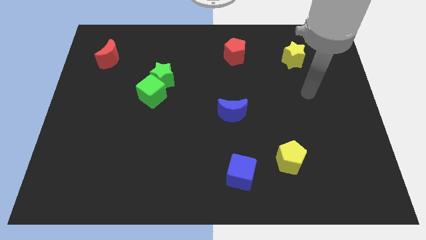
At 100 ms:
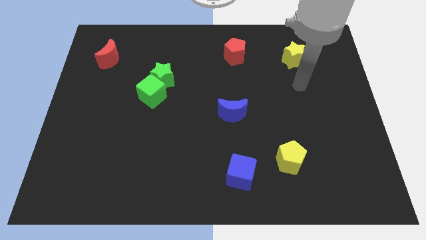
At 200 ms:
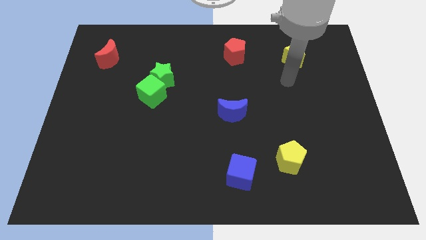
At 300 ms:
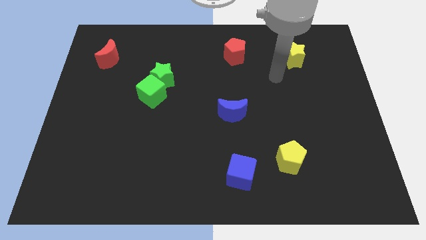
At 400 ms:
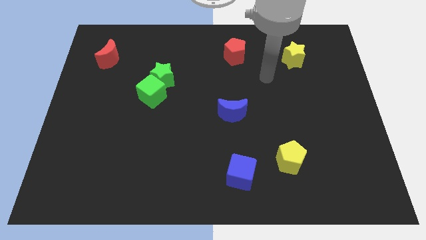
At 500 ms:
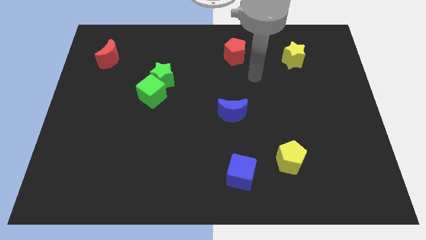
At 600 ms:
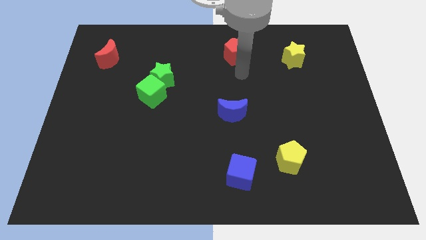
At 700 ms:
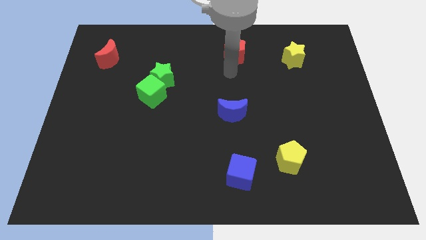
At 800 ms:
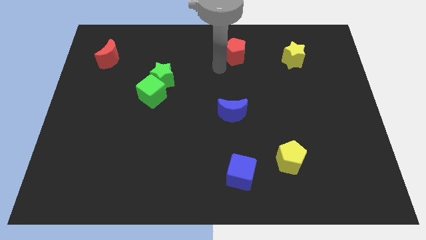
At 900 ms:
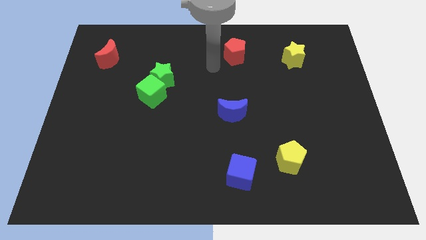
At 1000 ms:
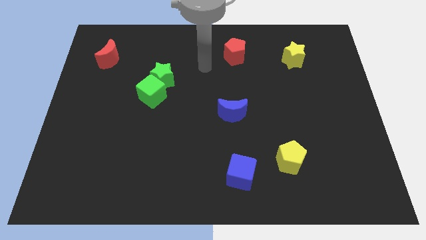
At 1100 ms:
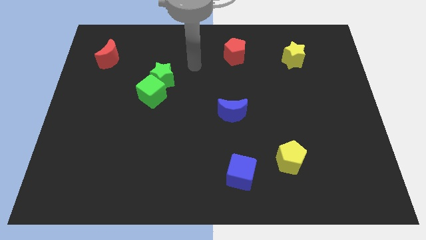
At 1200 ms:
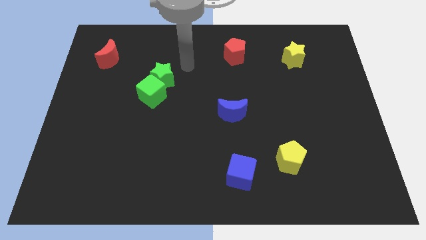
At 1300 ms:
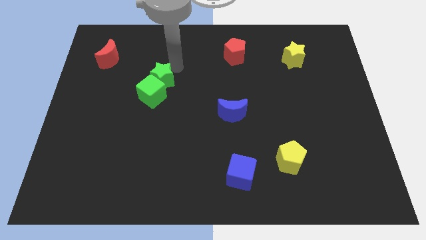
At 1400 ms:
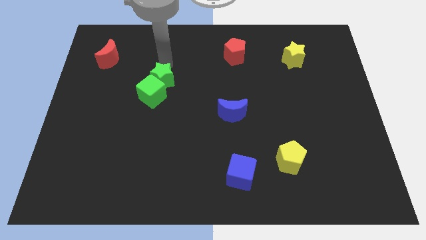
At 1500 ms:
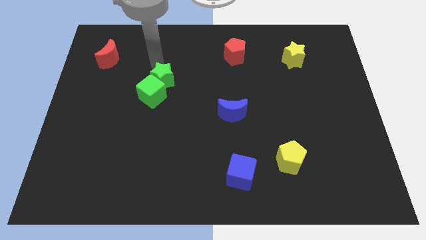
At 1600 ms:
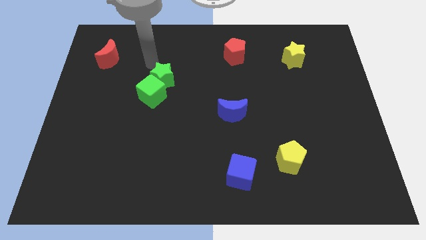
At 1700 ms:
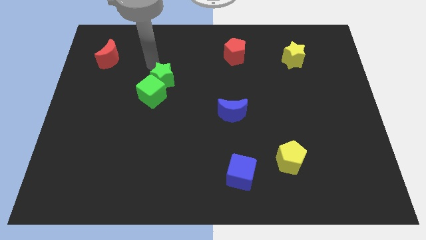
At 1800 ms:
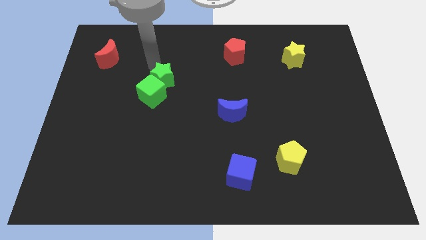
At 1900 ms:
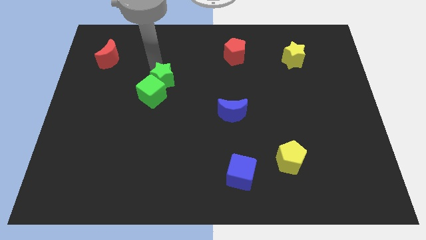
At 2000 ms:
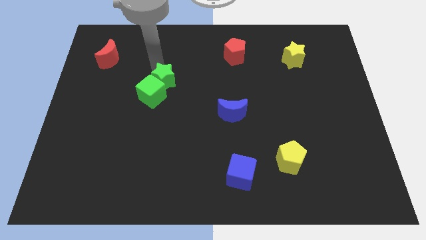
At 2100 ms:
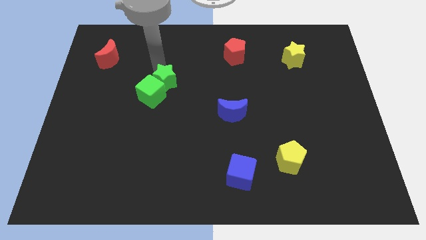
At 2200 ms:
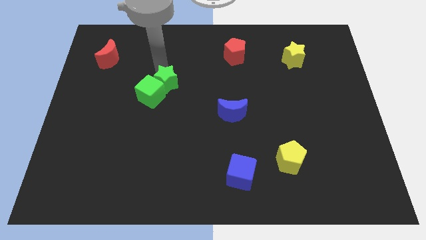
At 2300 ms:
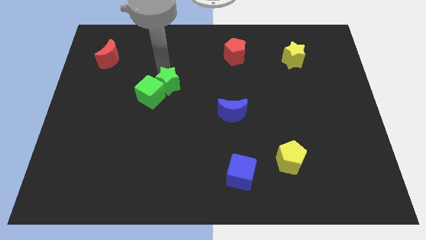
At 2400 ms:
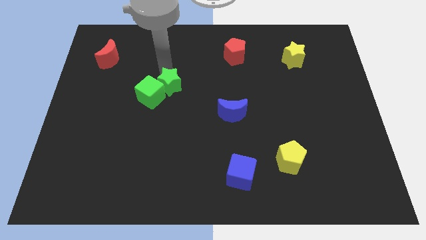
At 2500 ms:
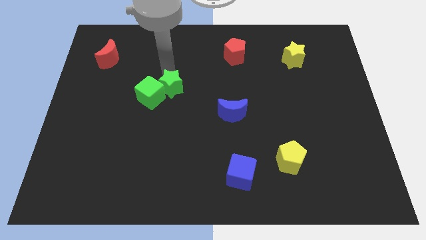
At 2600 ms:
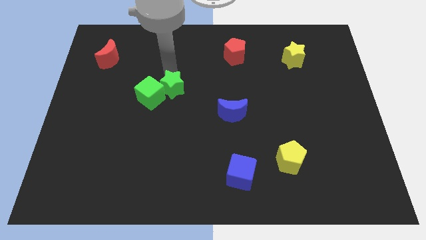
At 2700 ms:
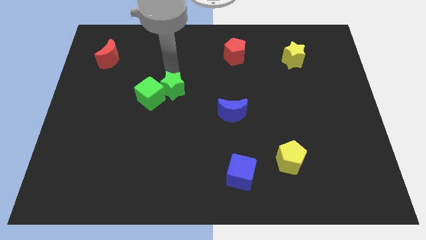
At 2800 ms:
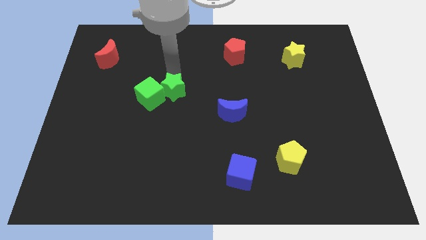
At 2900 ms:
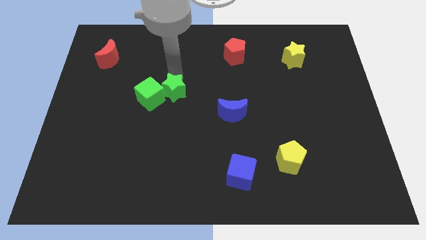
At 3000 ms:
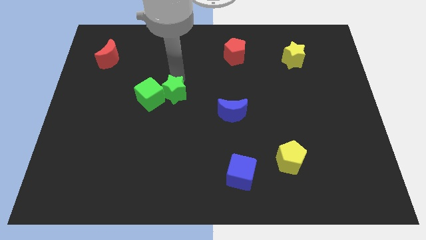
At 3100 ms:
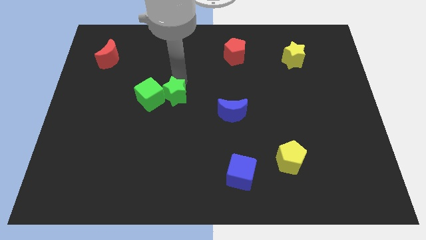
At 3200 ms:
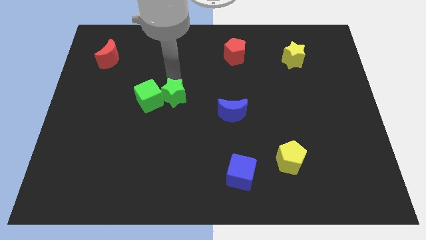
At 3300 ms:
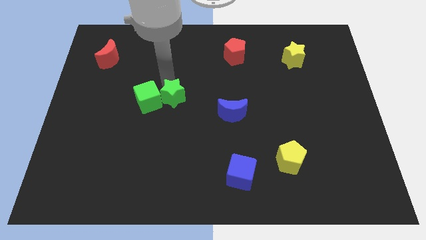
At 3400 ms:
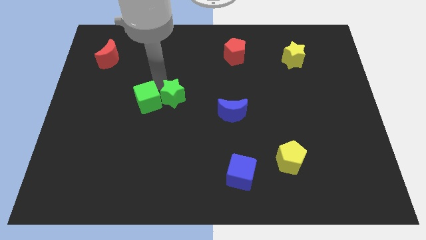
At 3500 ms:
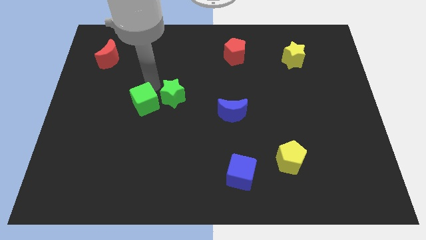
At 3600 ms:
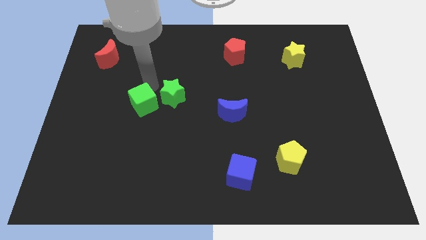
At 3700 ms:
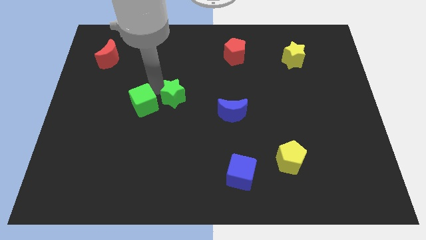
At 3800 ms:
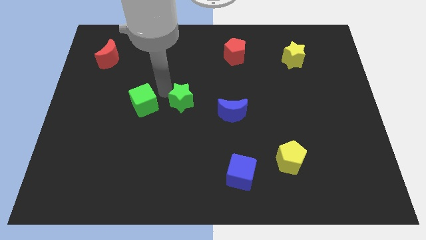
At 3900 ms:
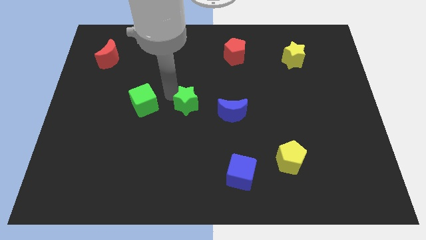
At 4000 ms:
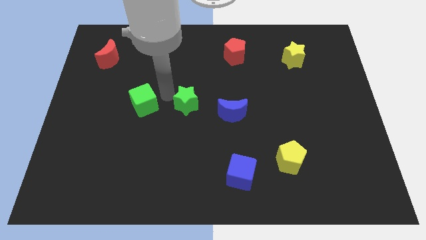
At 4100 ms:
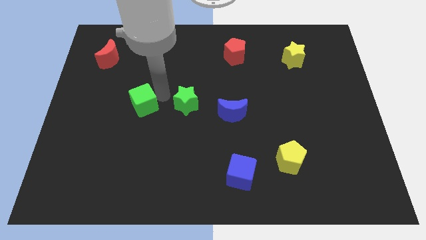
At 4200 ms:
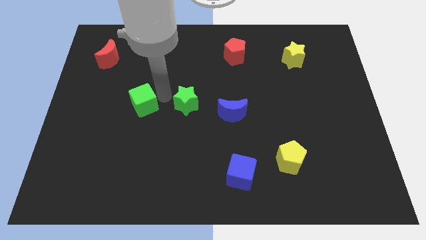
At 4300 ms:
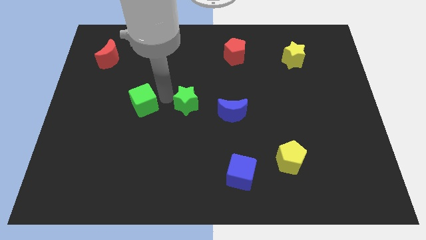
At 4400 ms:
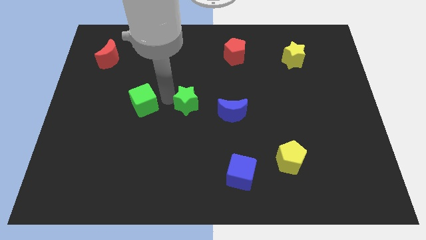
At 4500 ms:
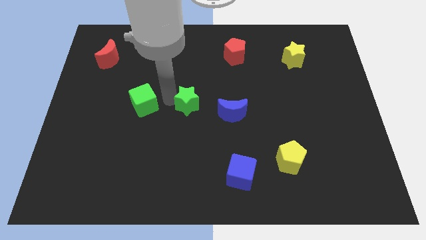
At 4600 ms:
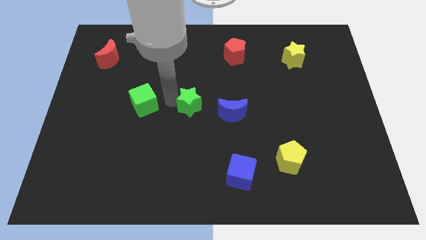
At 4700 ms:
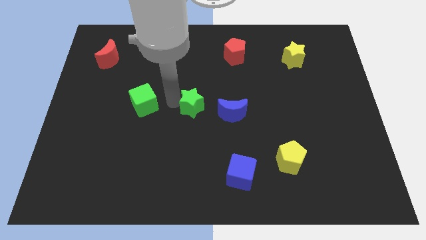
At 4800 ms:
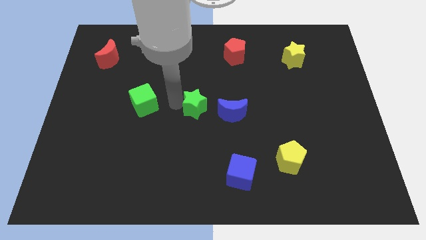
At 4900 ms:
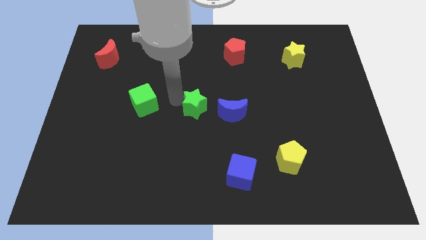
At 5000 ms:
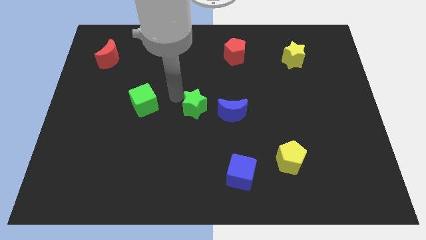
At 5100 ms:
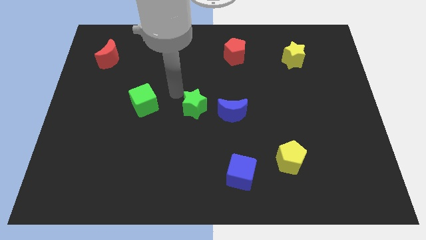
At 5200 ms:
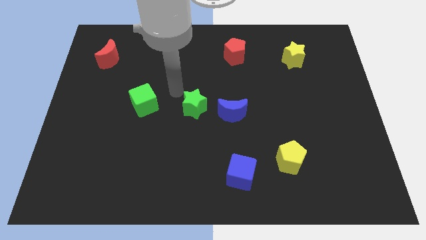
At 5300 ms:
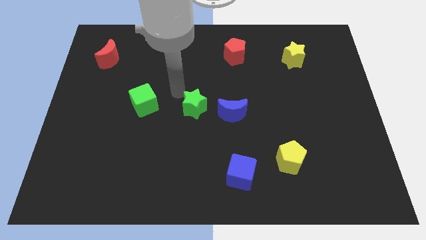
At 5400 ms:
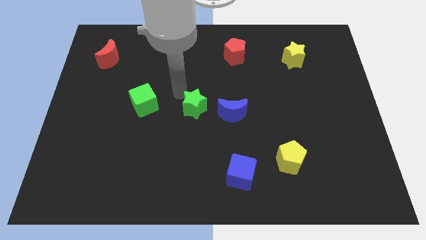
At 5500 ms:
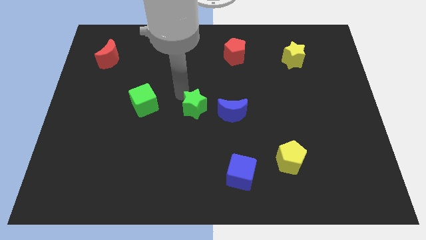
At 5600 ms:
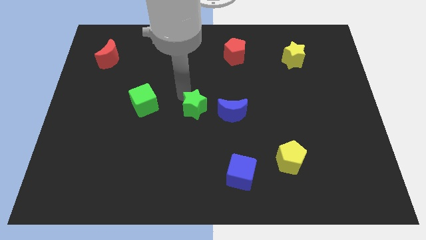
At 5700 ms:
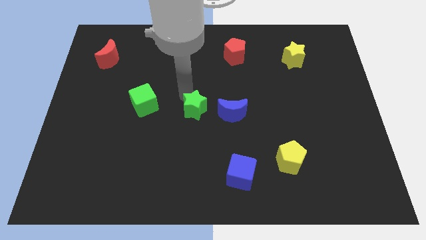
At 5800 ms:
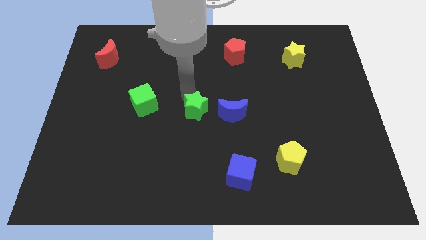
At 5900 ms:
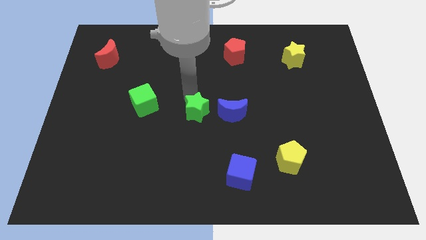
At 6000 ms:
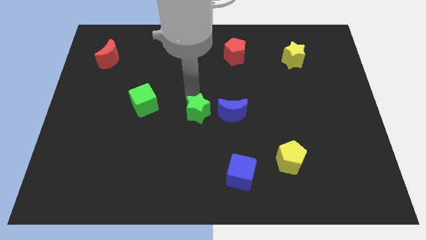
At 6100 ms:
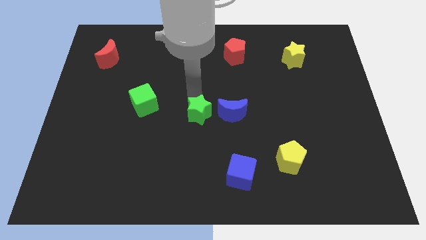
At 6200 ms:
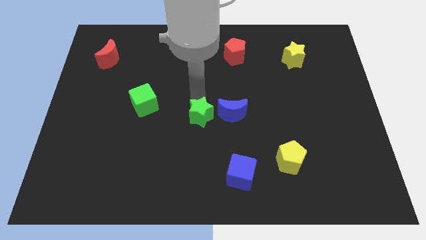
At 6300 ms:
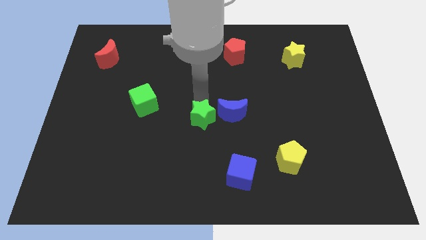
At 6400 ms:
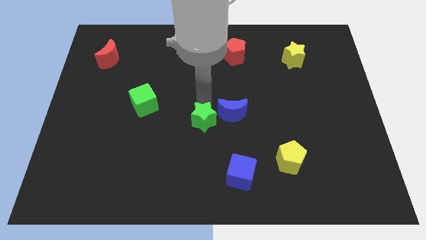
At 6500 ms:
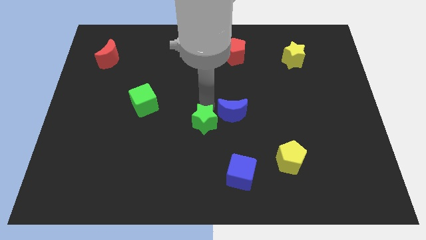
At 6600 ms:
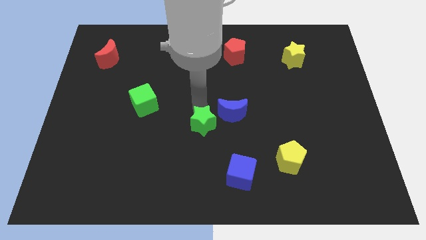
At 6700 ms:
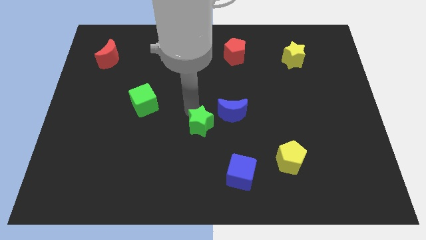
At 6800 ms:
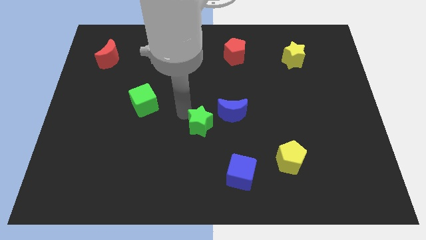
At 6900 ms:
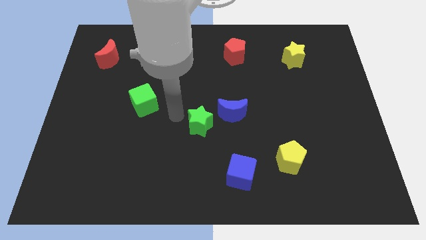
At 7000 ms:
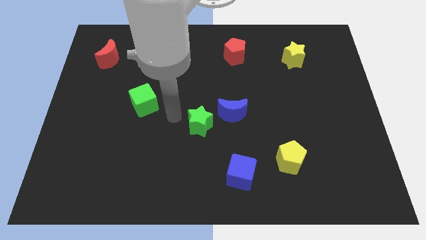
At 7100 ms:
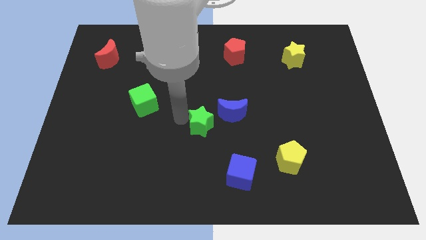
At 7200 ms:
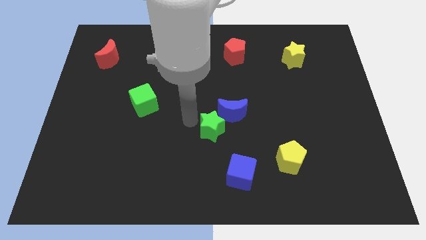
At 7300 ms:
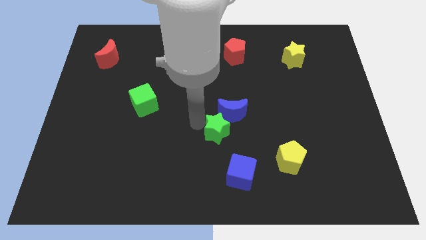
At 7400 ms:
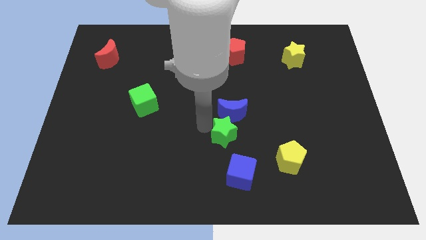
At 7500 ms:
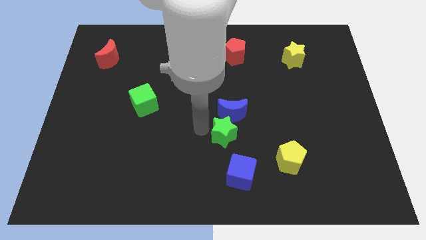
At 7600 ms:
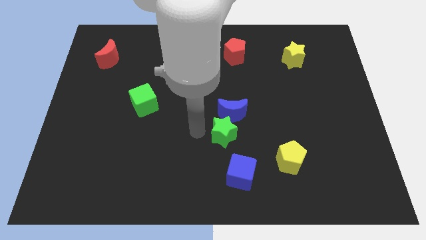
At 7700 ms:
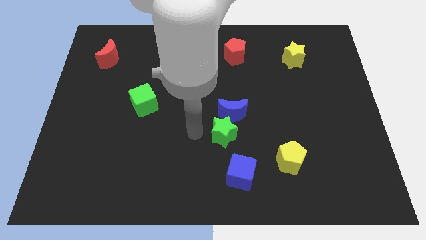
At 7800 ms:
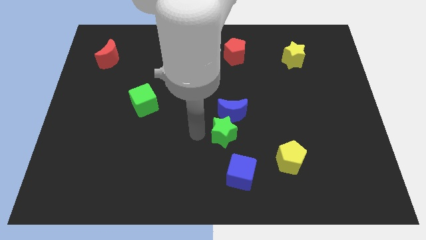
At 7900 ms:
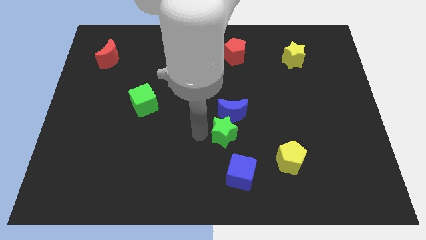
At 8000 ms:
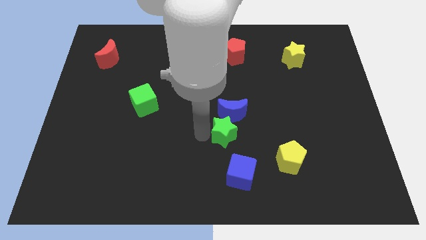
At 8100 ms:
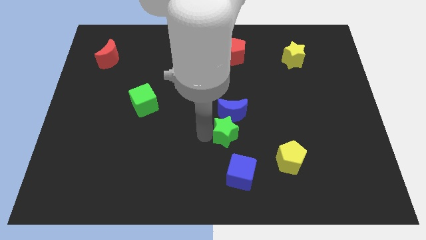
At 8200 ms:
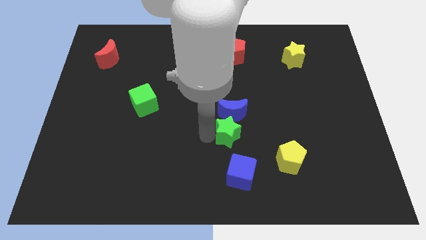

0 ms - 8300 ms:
slide the green star diagonally down and to the right of the blue moon
